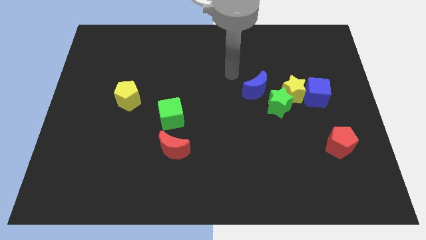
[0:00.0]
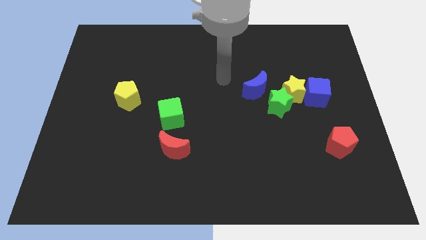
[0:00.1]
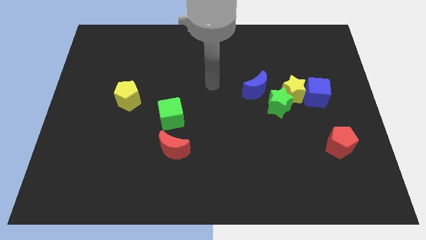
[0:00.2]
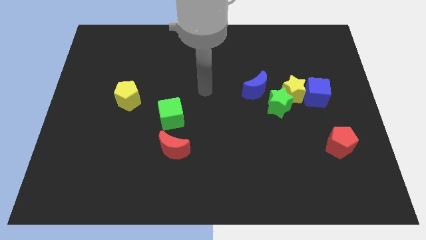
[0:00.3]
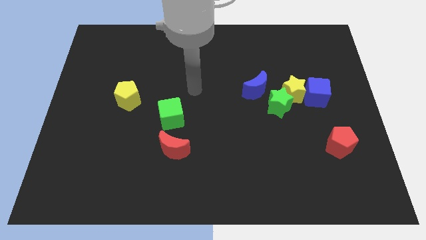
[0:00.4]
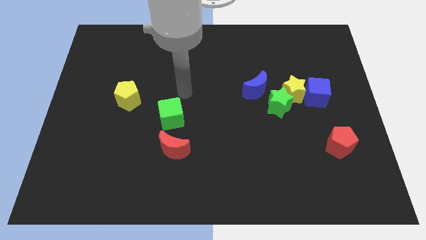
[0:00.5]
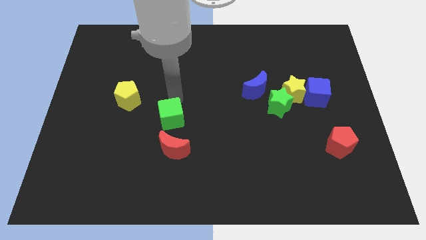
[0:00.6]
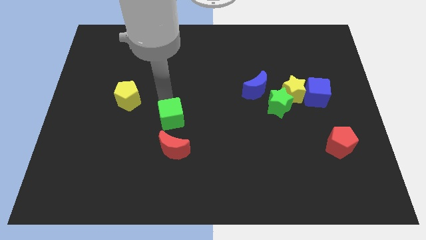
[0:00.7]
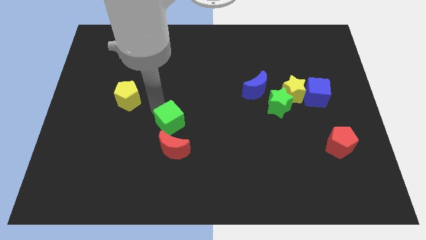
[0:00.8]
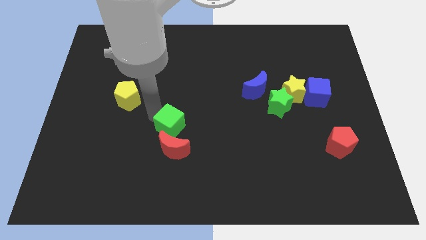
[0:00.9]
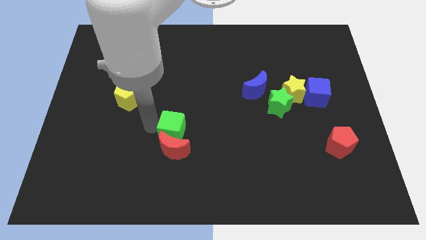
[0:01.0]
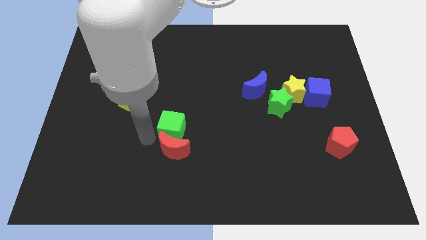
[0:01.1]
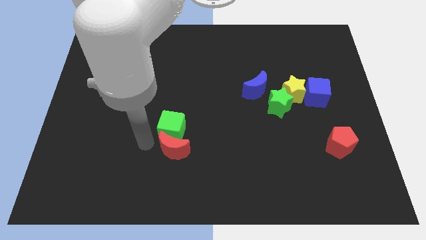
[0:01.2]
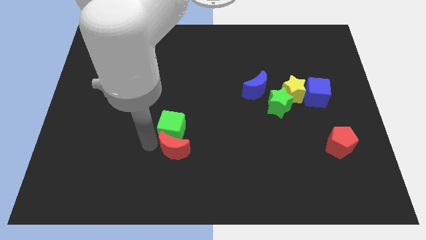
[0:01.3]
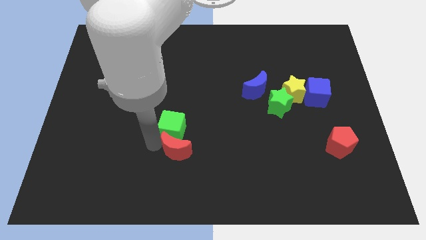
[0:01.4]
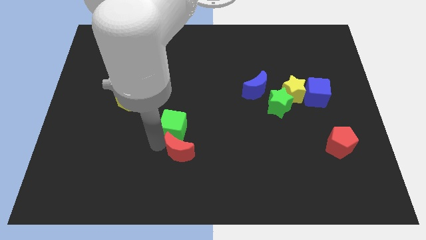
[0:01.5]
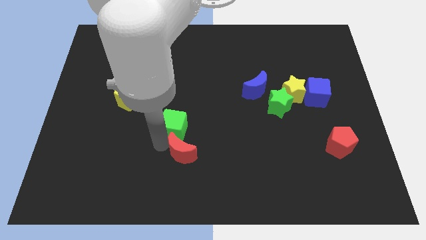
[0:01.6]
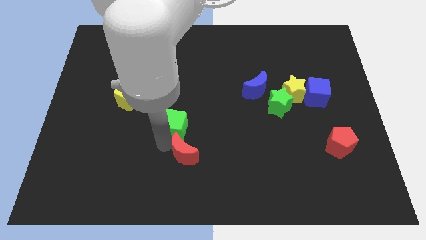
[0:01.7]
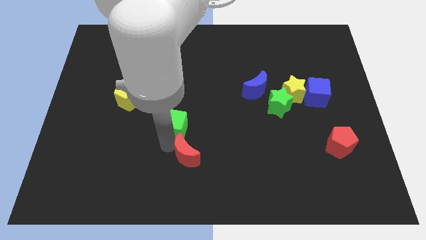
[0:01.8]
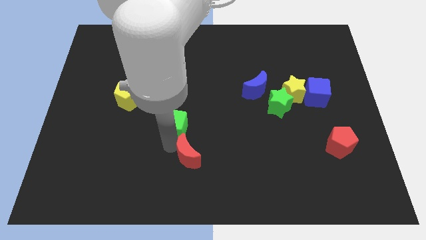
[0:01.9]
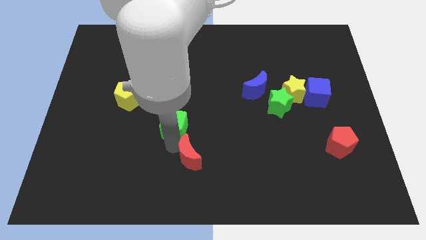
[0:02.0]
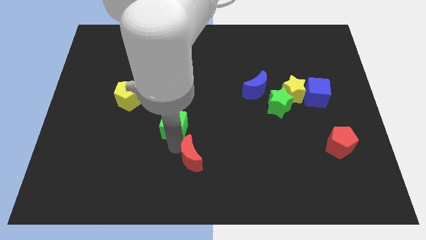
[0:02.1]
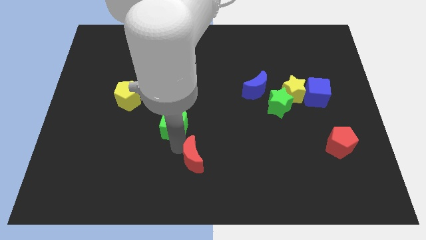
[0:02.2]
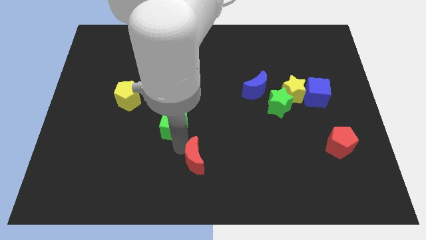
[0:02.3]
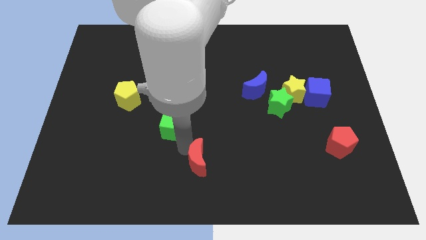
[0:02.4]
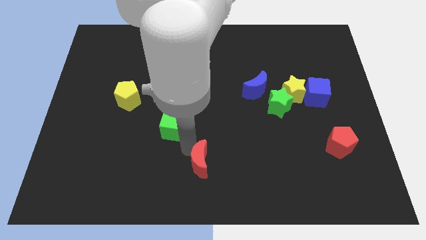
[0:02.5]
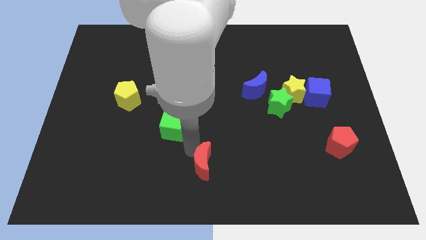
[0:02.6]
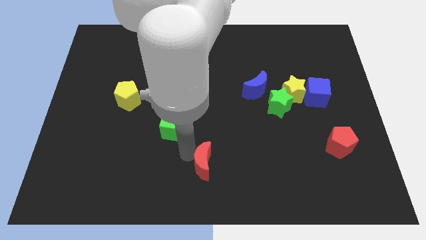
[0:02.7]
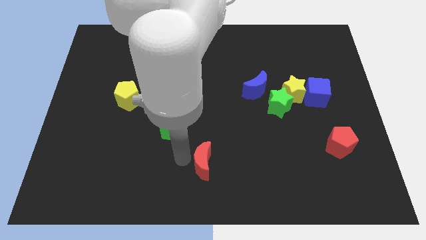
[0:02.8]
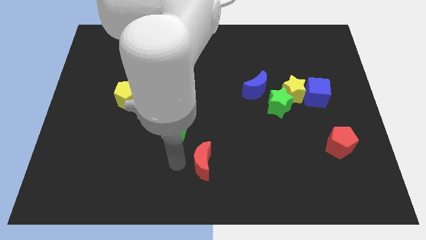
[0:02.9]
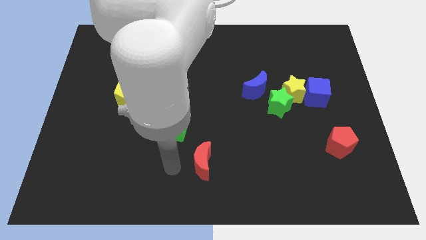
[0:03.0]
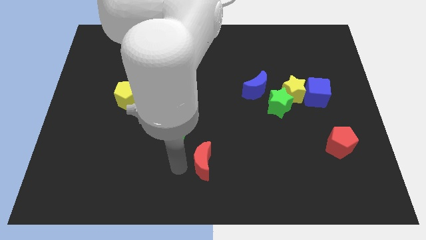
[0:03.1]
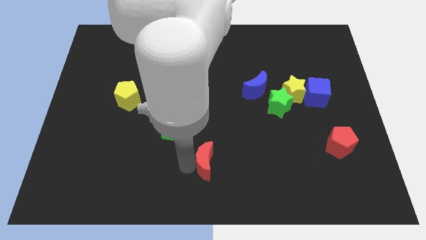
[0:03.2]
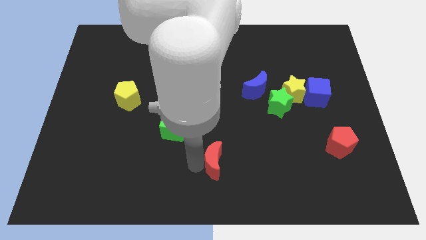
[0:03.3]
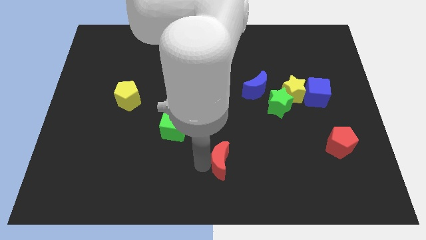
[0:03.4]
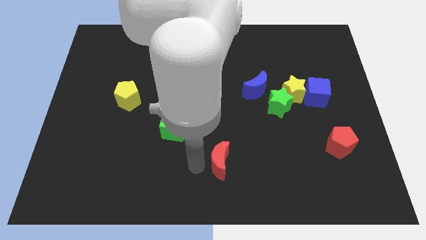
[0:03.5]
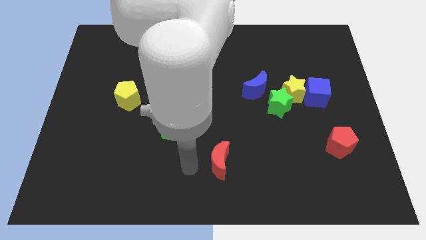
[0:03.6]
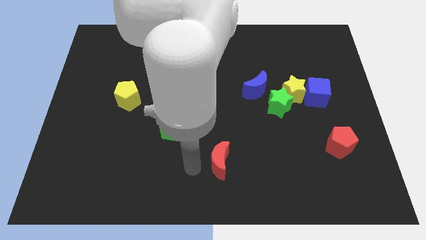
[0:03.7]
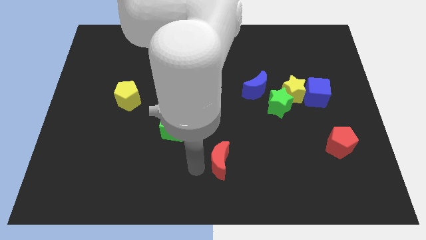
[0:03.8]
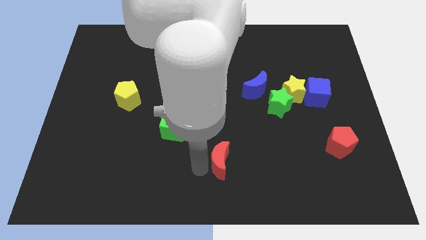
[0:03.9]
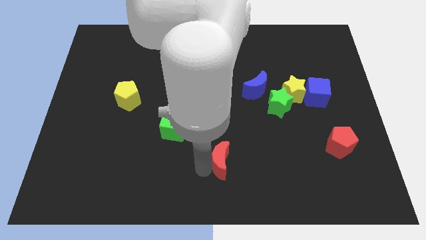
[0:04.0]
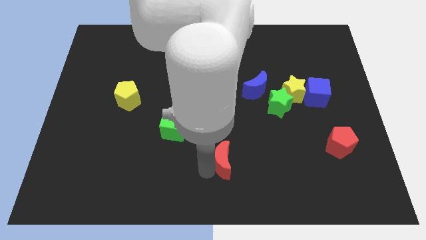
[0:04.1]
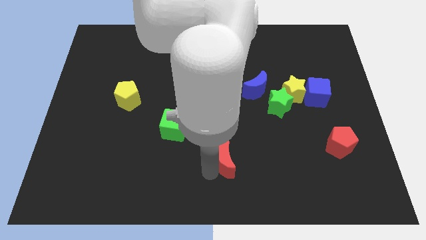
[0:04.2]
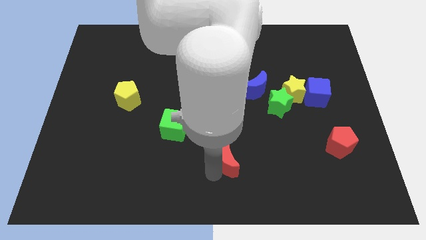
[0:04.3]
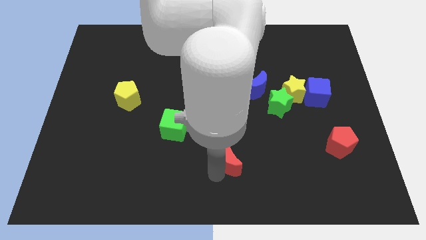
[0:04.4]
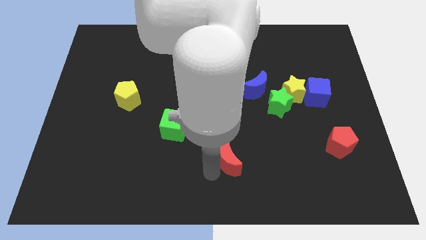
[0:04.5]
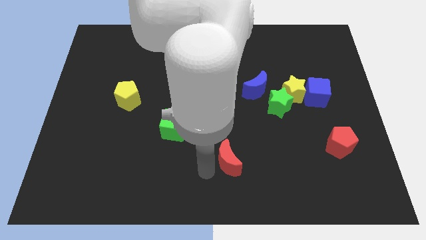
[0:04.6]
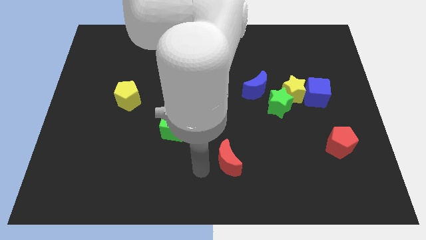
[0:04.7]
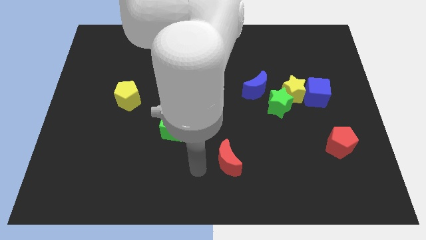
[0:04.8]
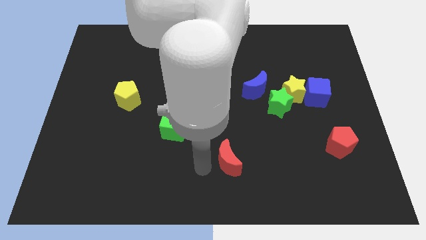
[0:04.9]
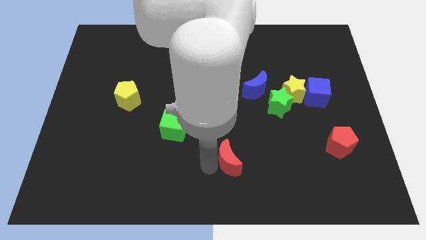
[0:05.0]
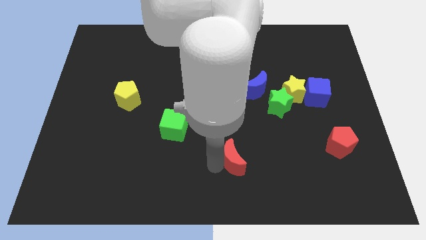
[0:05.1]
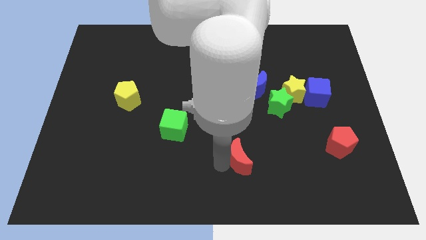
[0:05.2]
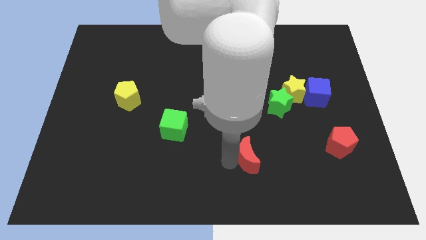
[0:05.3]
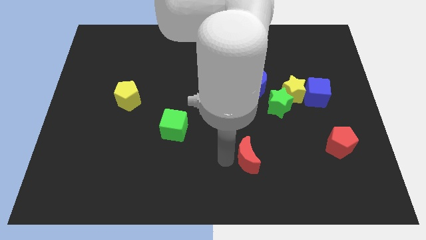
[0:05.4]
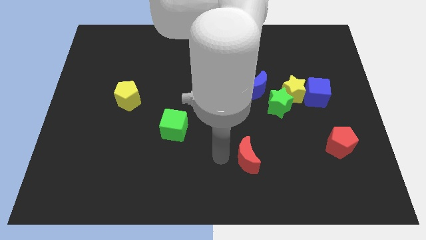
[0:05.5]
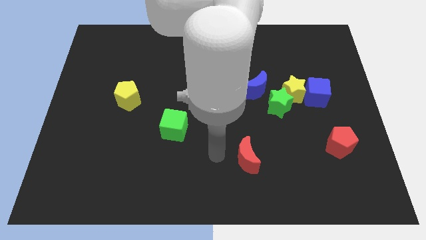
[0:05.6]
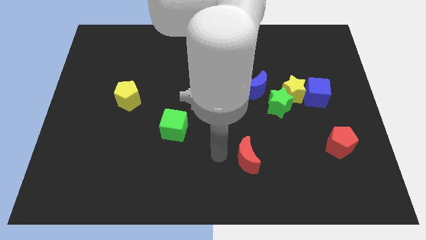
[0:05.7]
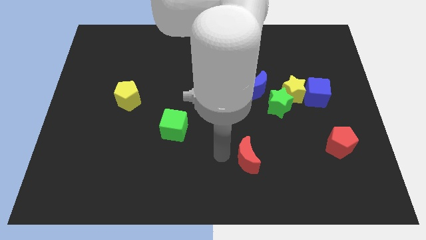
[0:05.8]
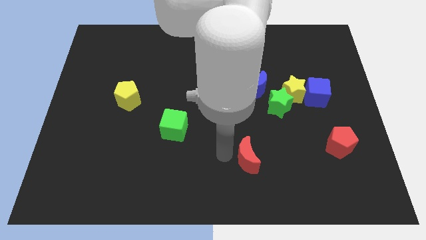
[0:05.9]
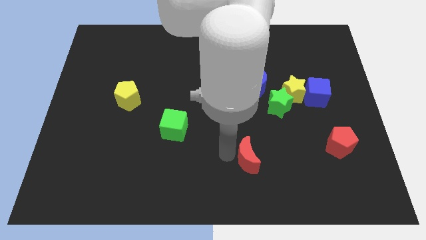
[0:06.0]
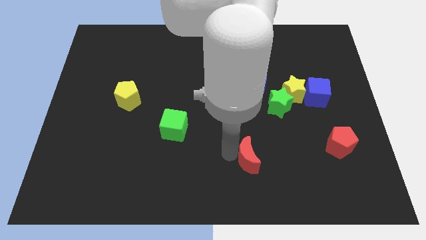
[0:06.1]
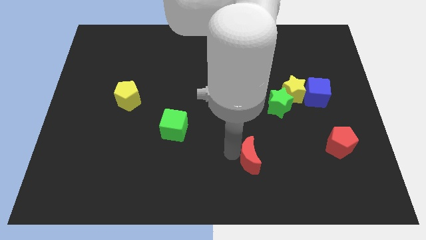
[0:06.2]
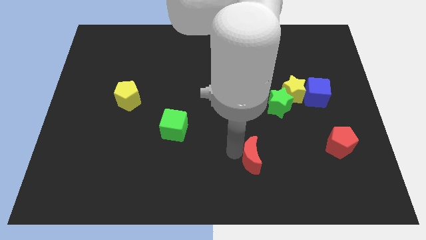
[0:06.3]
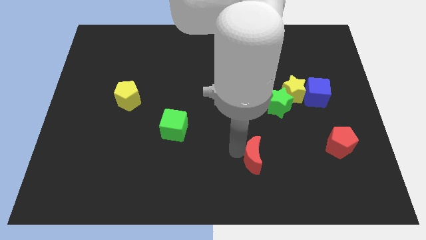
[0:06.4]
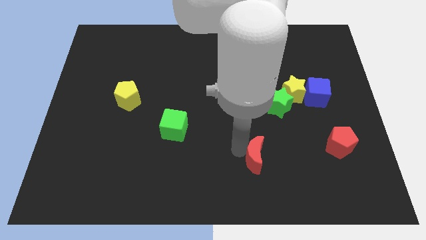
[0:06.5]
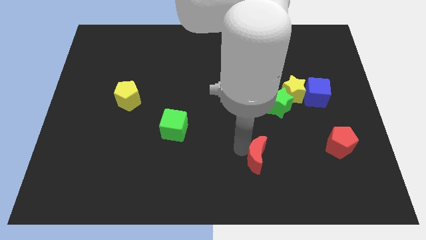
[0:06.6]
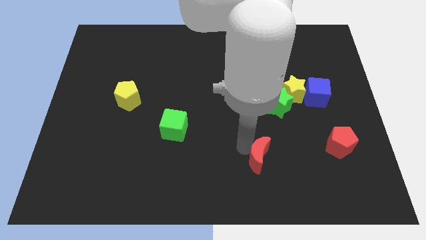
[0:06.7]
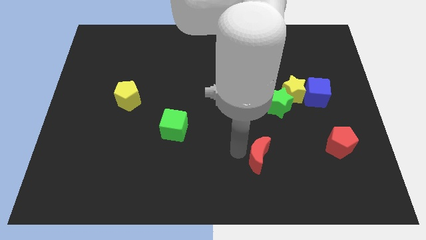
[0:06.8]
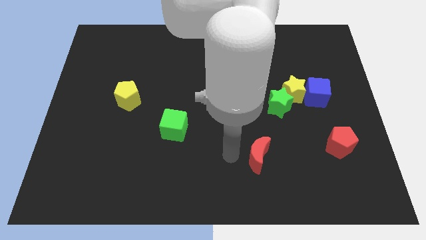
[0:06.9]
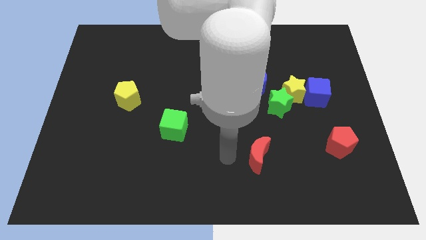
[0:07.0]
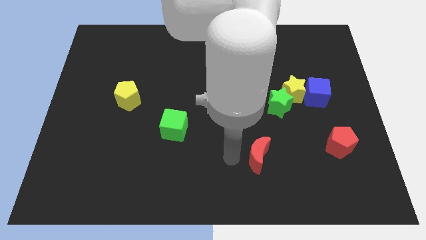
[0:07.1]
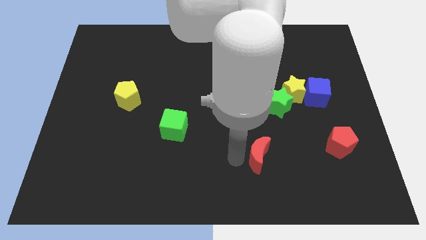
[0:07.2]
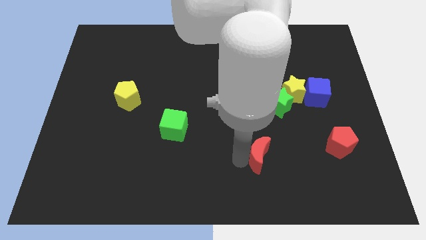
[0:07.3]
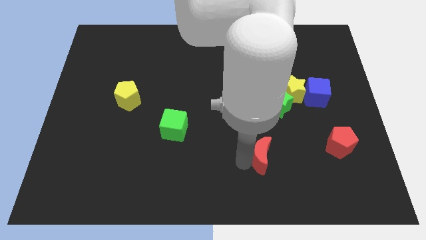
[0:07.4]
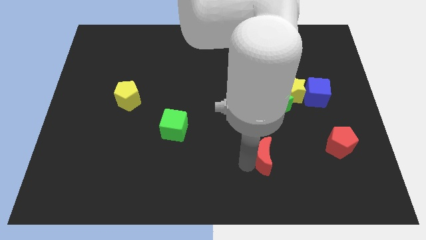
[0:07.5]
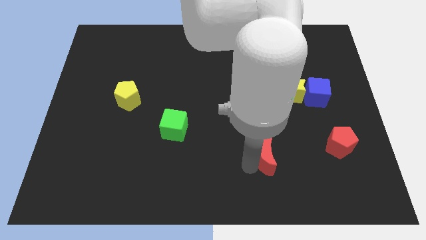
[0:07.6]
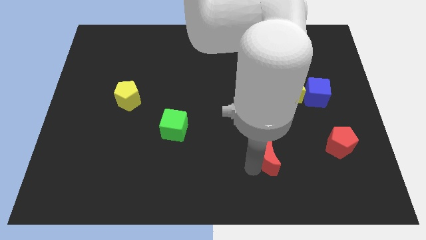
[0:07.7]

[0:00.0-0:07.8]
slide the red moon right

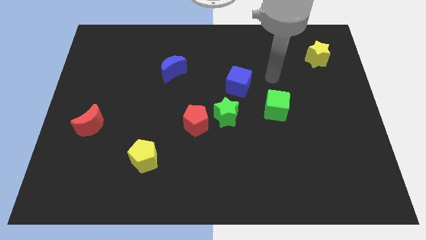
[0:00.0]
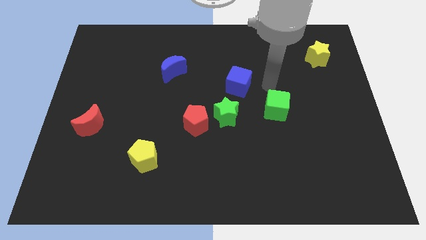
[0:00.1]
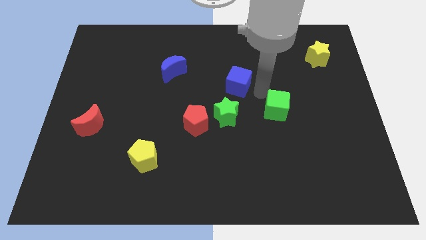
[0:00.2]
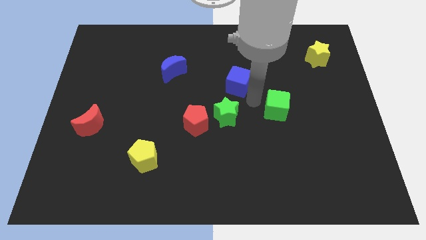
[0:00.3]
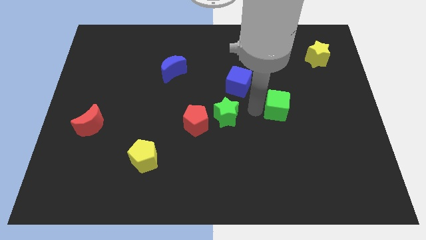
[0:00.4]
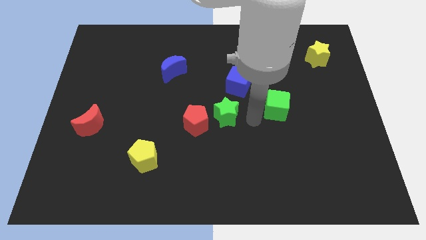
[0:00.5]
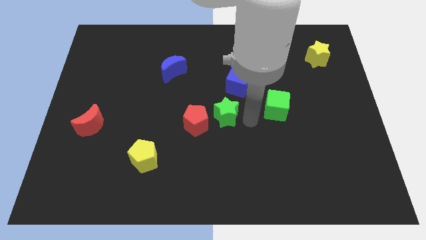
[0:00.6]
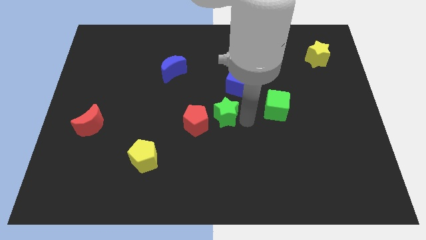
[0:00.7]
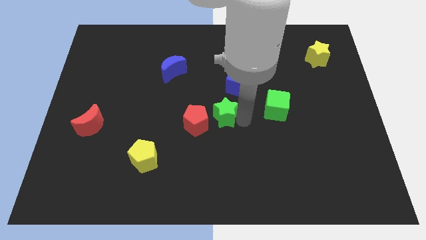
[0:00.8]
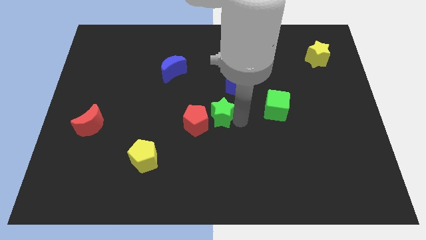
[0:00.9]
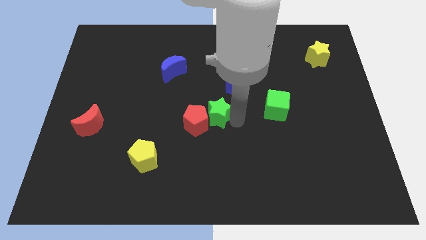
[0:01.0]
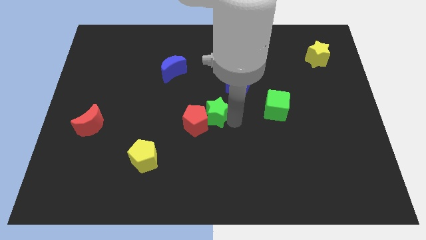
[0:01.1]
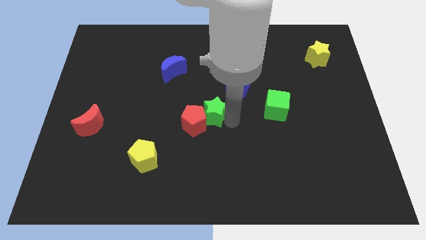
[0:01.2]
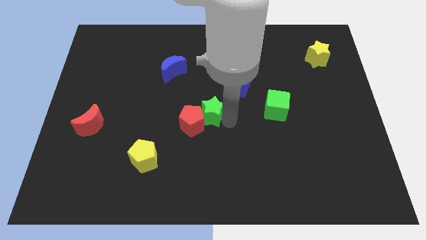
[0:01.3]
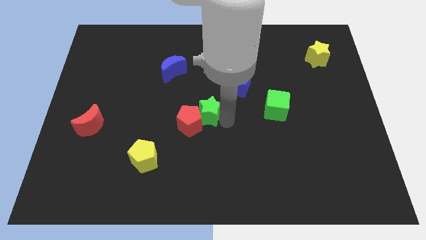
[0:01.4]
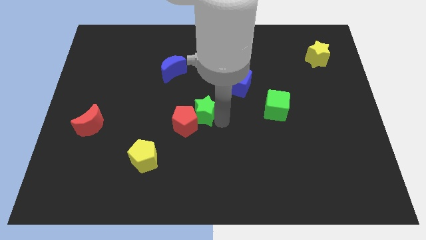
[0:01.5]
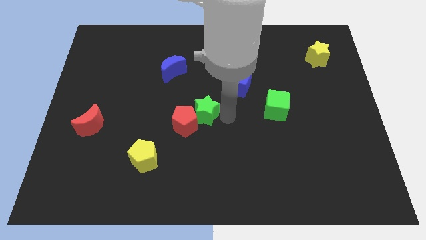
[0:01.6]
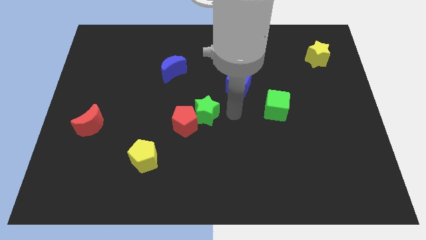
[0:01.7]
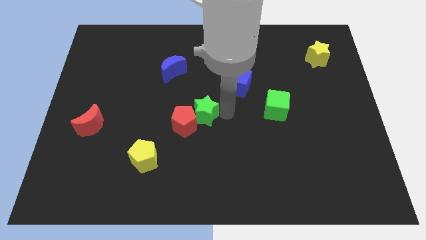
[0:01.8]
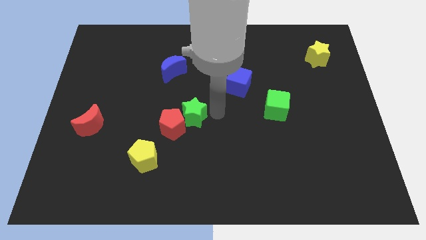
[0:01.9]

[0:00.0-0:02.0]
slightly slide the green star left
